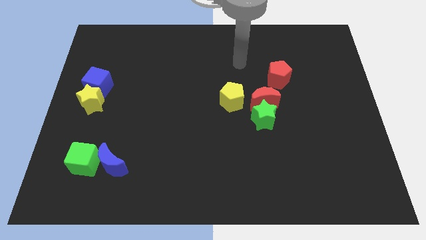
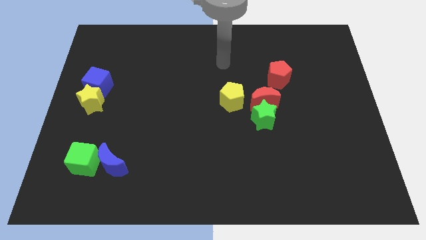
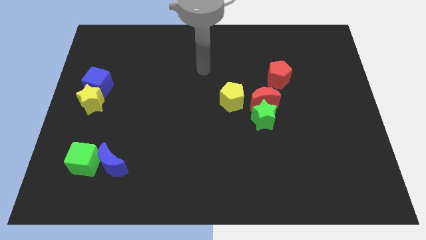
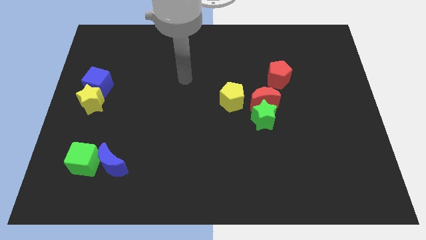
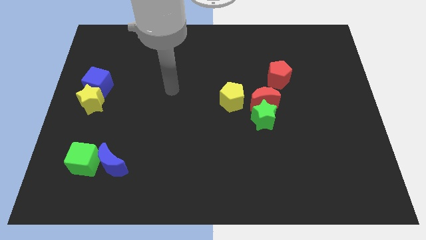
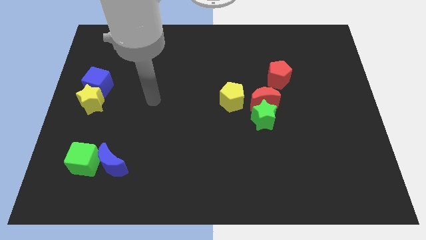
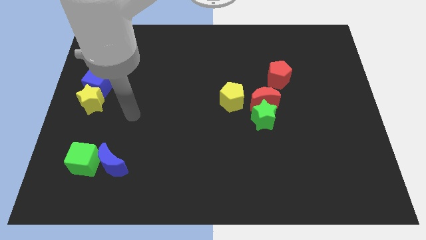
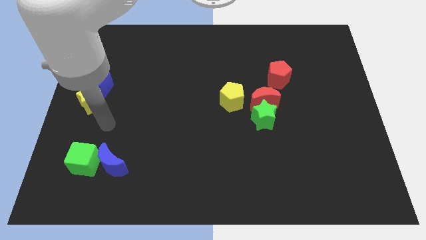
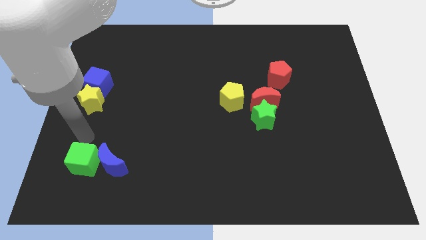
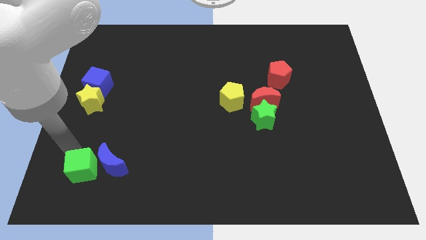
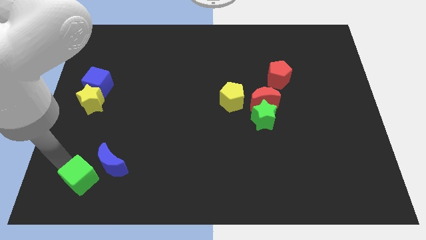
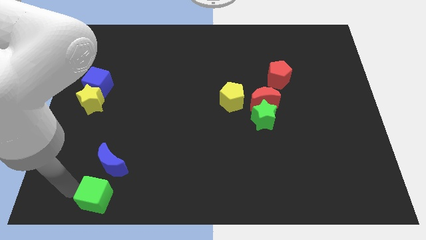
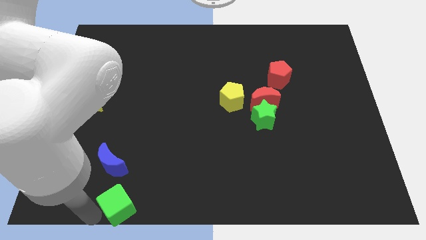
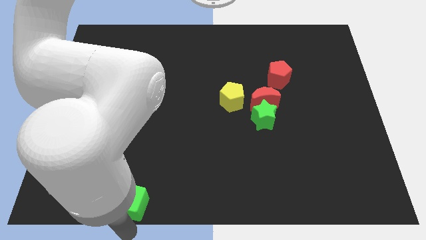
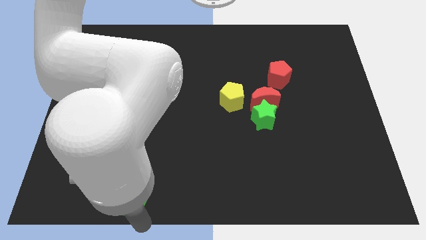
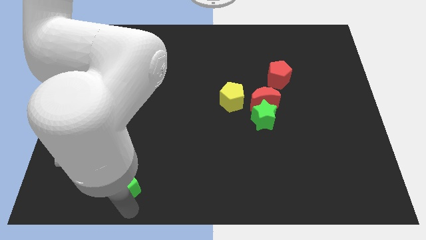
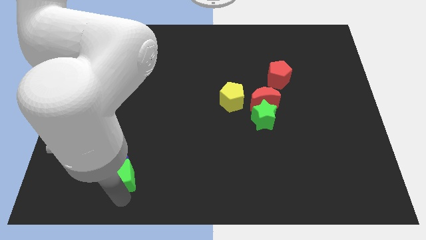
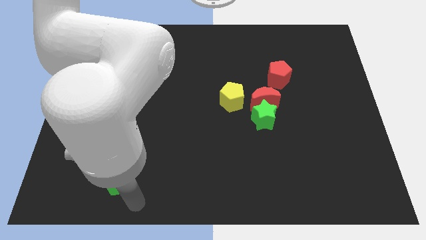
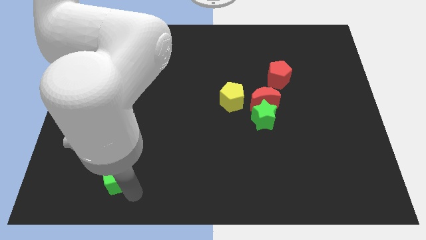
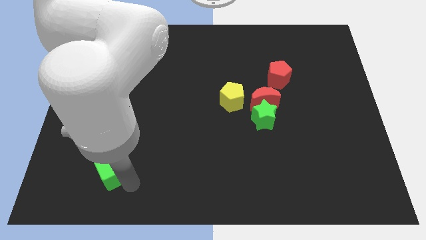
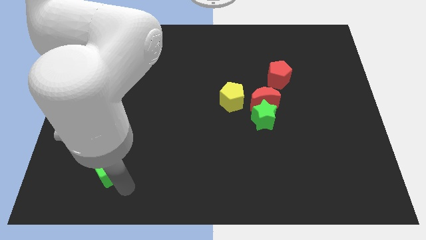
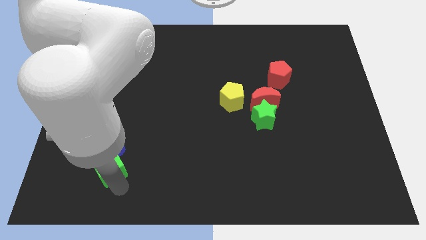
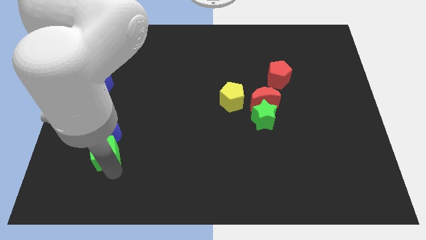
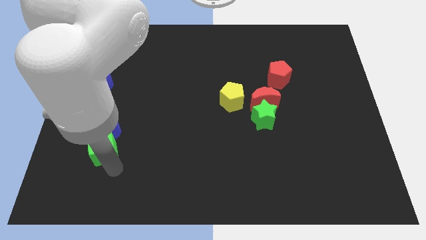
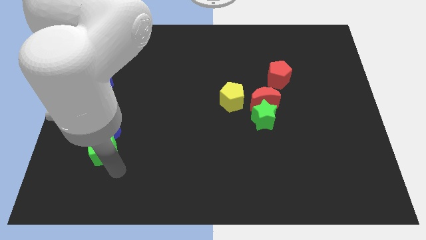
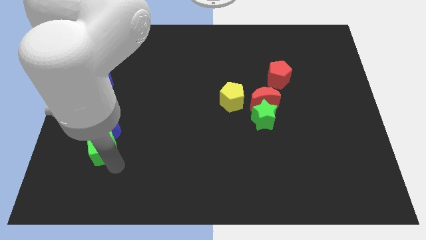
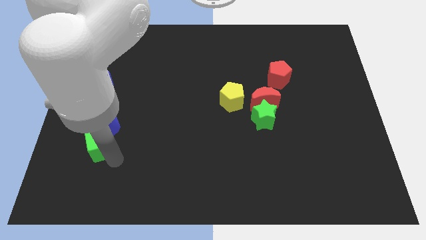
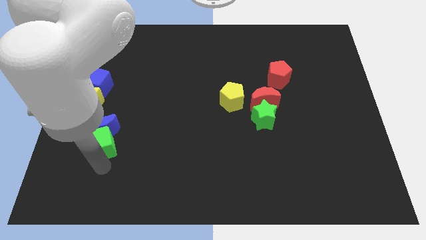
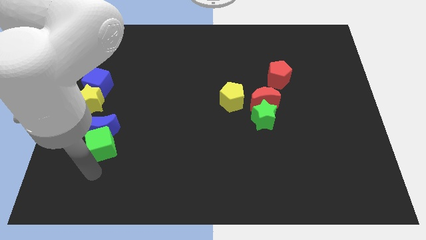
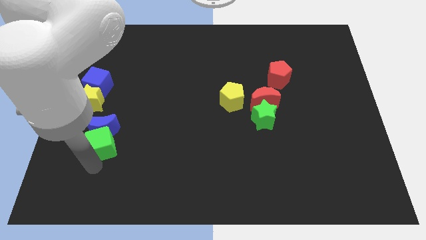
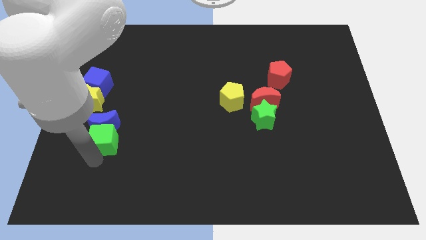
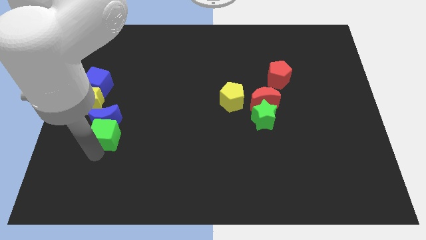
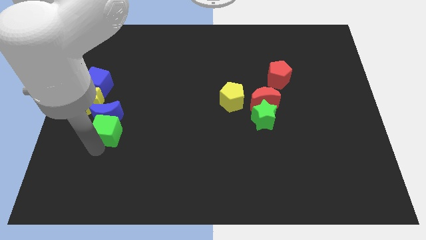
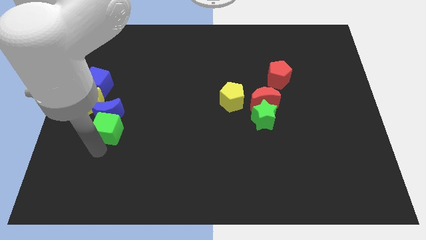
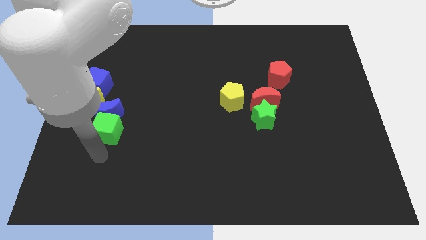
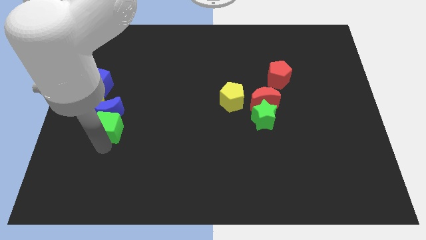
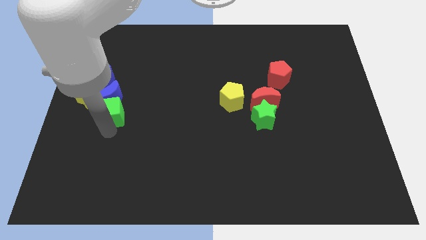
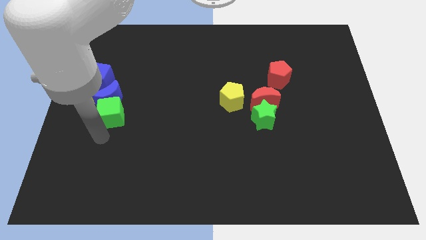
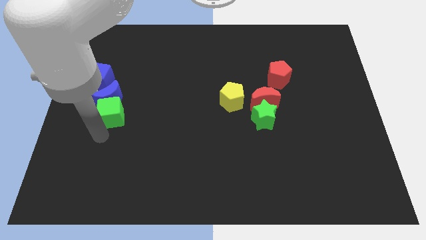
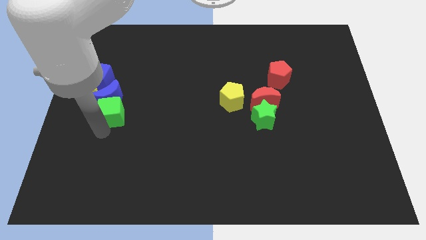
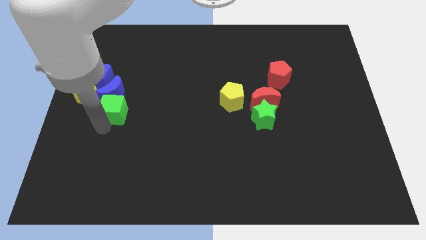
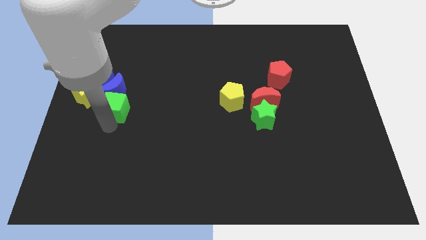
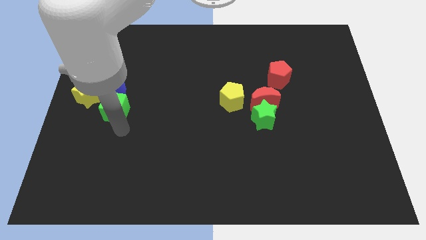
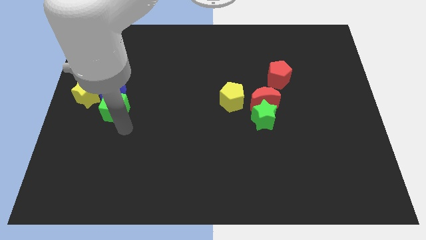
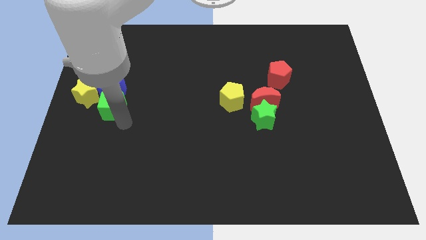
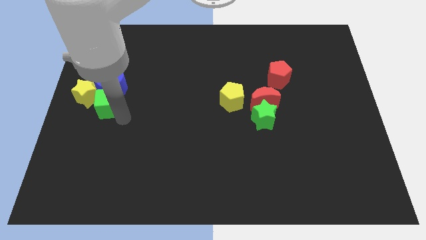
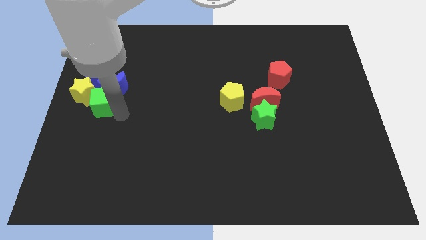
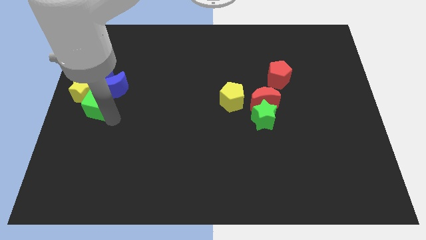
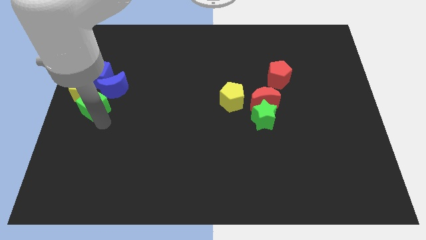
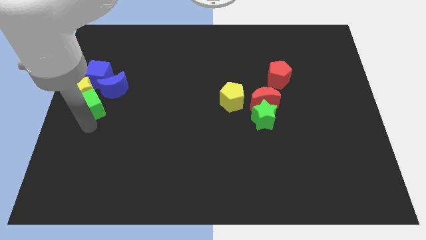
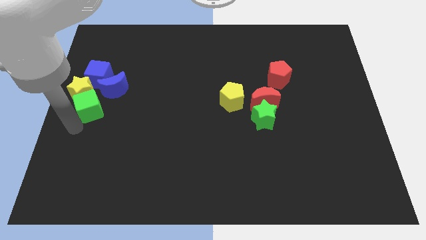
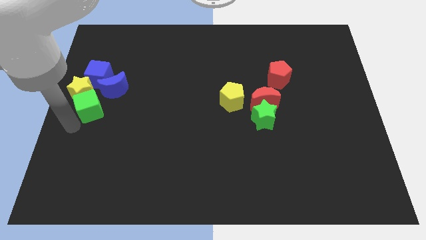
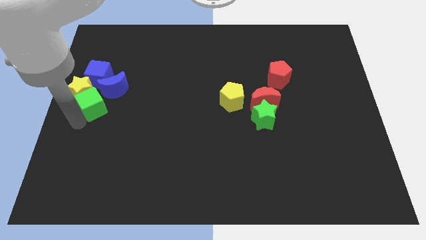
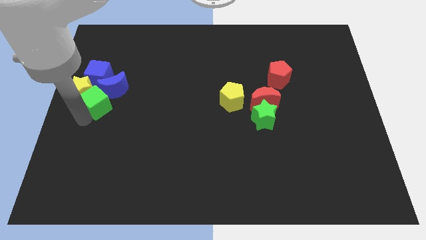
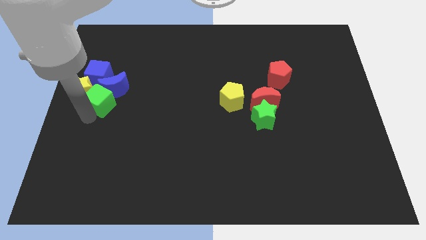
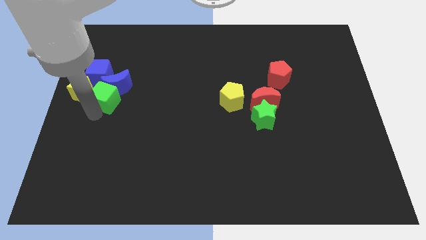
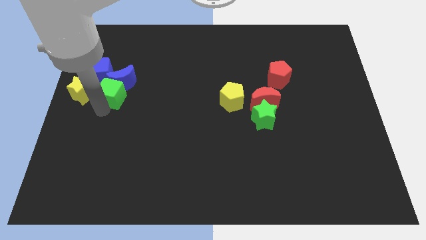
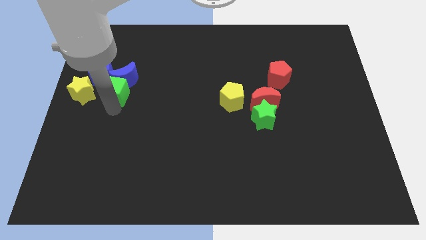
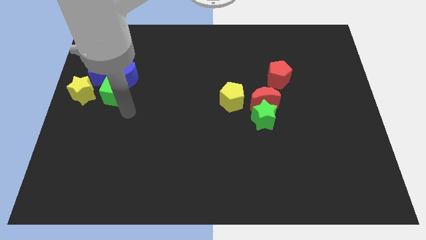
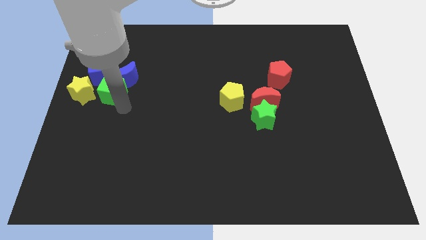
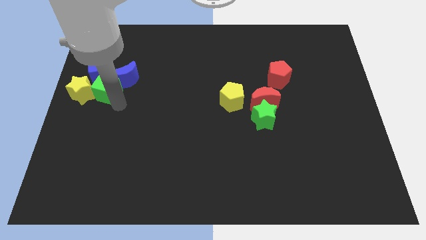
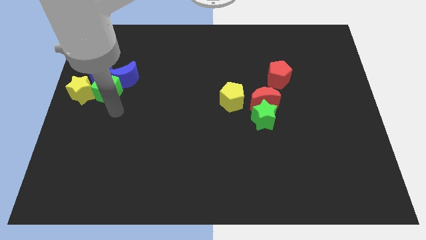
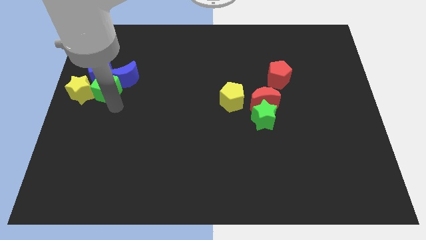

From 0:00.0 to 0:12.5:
slide the green cube close to the blue cube
